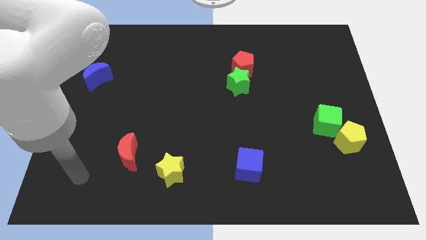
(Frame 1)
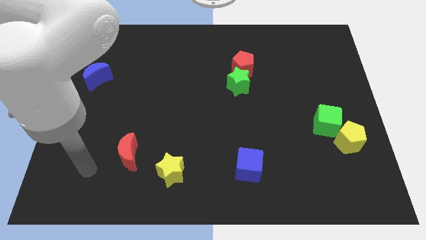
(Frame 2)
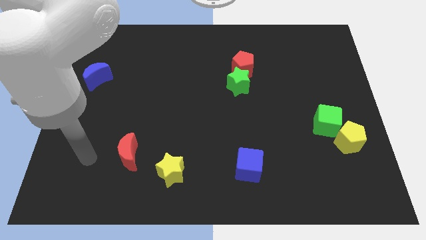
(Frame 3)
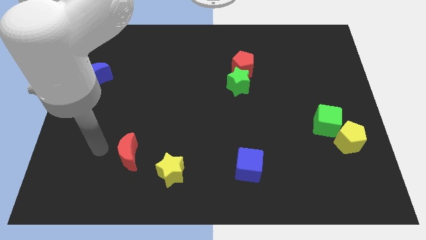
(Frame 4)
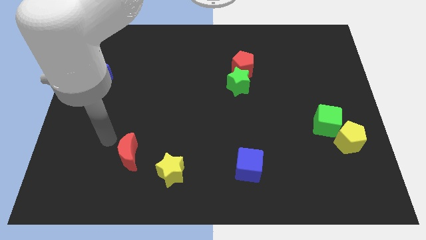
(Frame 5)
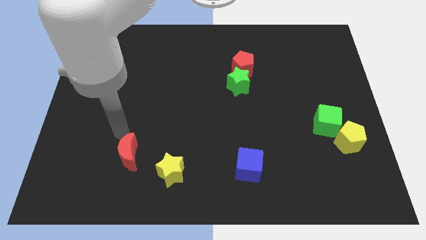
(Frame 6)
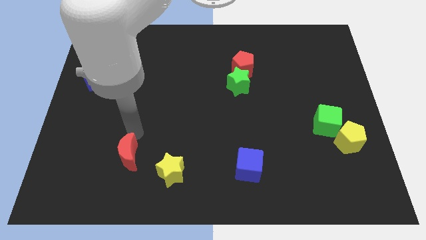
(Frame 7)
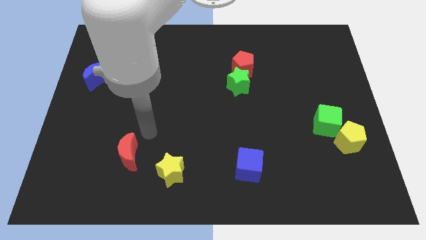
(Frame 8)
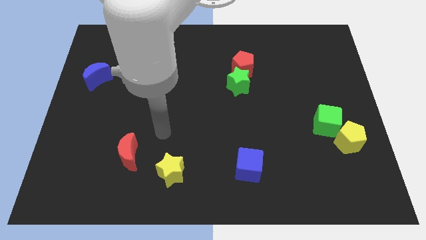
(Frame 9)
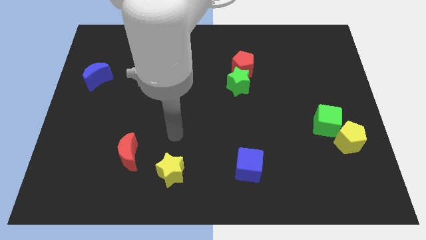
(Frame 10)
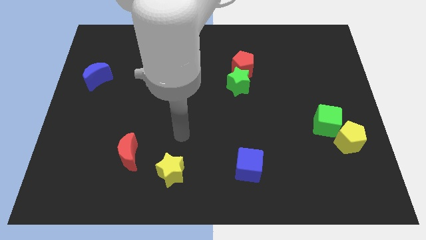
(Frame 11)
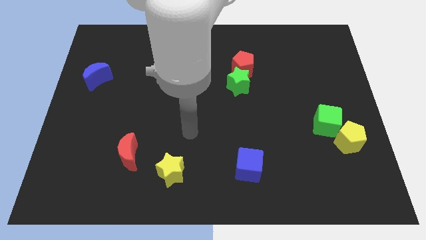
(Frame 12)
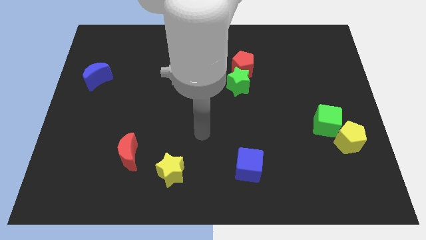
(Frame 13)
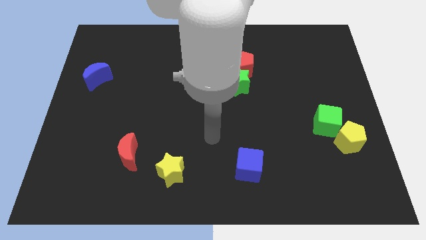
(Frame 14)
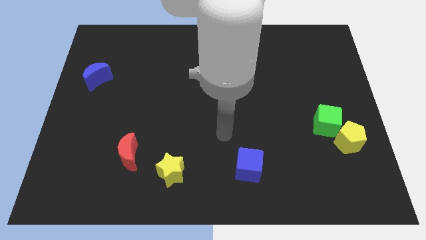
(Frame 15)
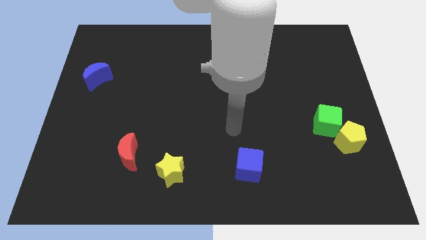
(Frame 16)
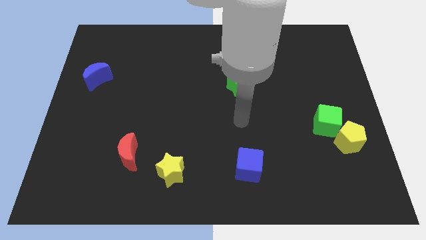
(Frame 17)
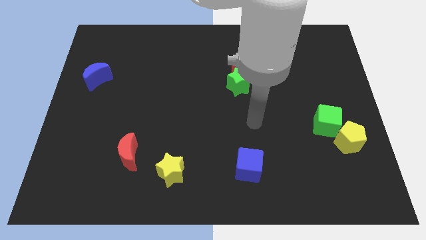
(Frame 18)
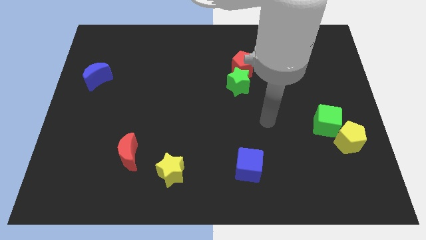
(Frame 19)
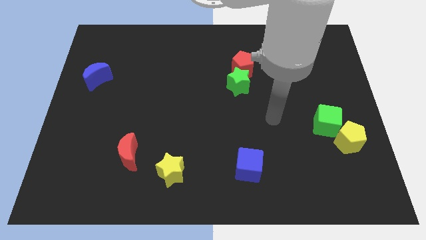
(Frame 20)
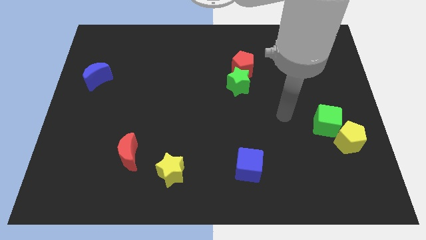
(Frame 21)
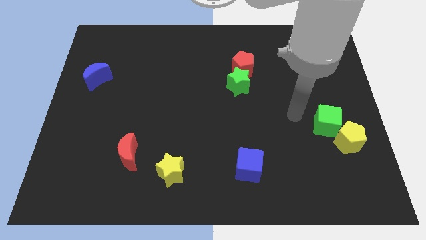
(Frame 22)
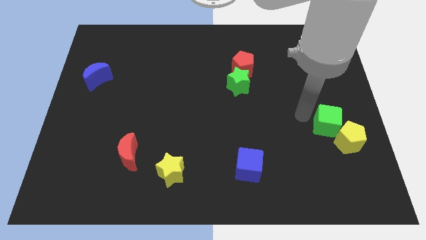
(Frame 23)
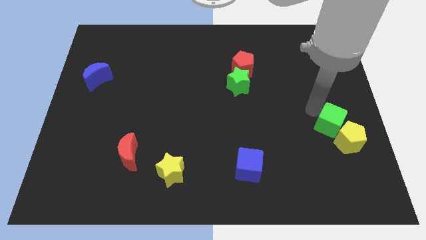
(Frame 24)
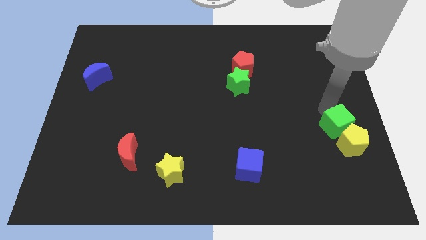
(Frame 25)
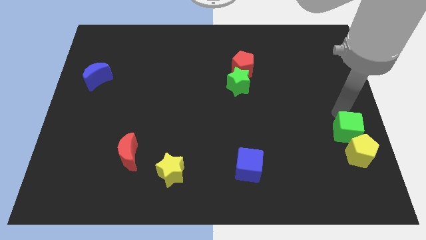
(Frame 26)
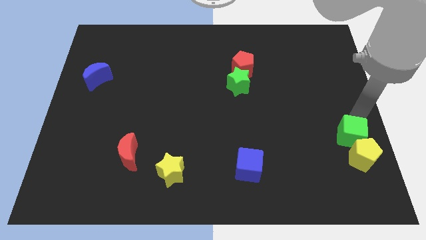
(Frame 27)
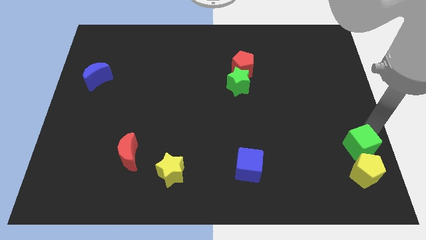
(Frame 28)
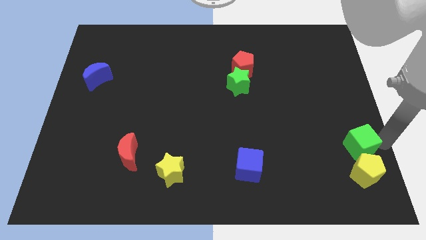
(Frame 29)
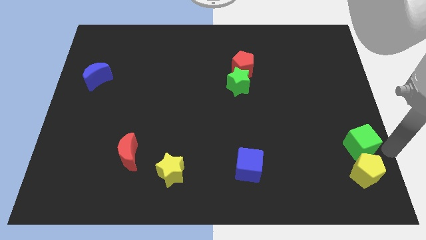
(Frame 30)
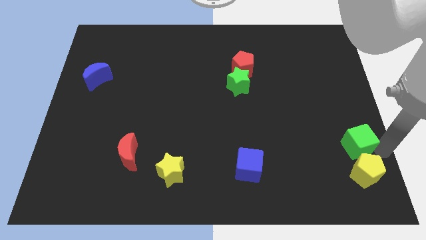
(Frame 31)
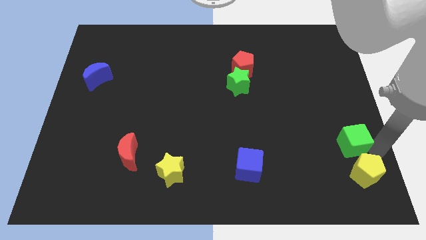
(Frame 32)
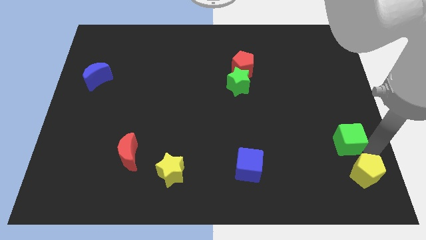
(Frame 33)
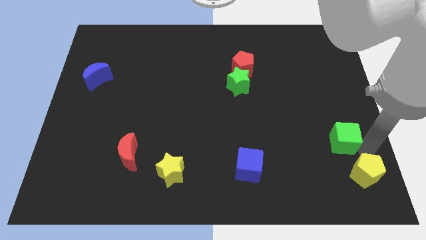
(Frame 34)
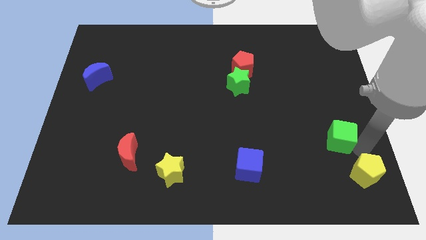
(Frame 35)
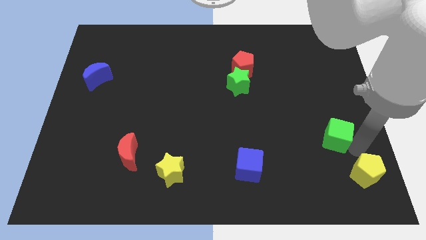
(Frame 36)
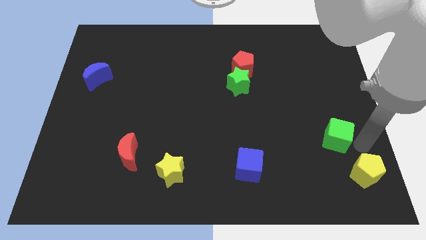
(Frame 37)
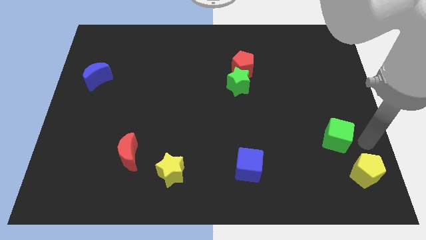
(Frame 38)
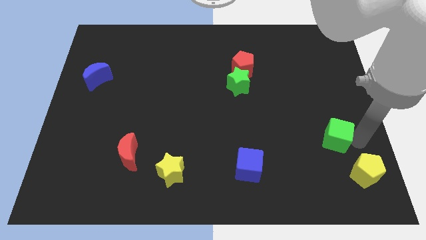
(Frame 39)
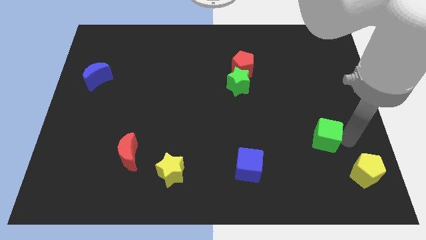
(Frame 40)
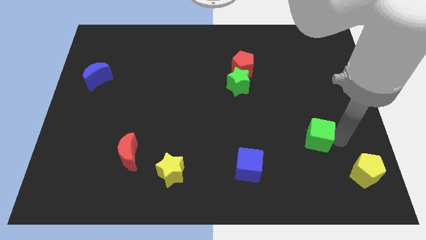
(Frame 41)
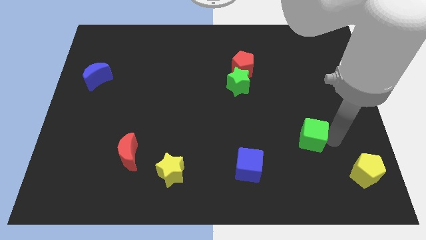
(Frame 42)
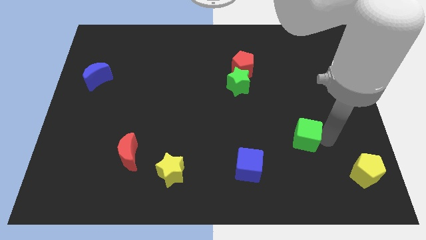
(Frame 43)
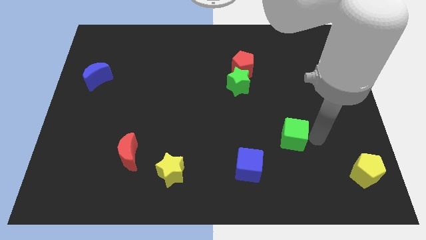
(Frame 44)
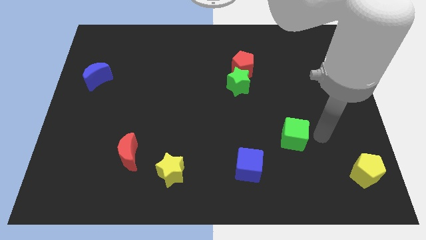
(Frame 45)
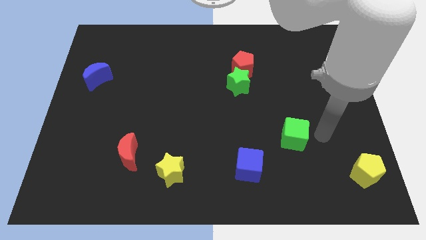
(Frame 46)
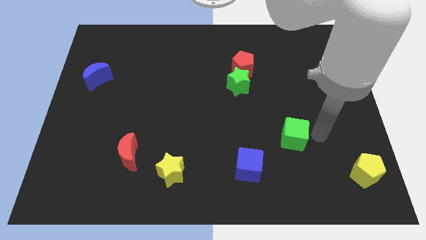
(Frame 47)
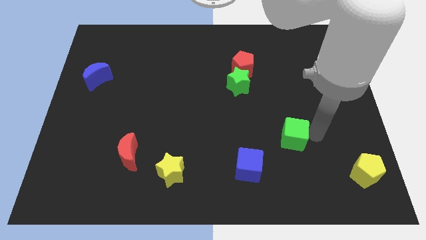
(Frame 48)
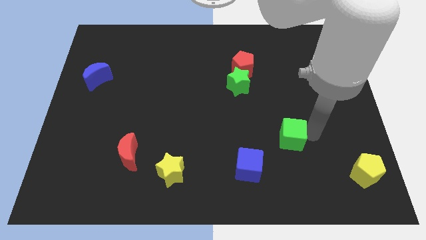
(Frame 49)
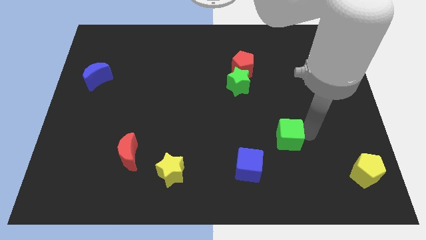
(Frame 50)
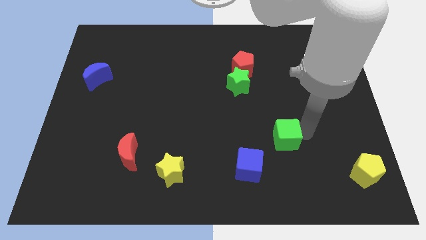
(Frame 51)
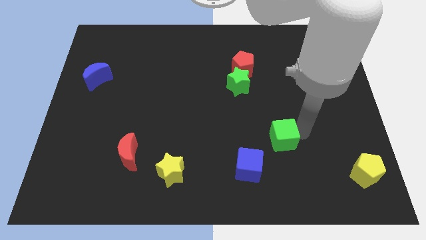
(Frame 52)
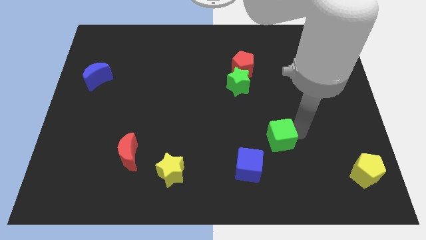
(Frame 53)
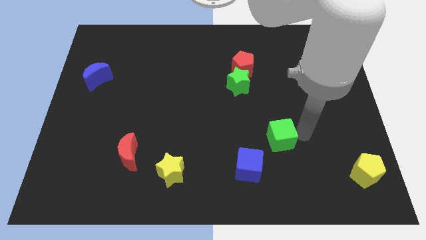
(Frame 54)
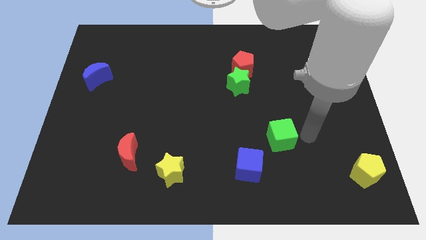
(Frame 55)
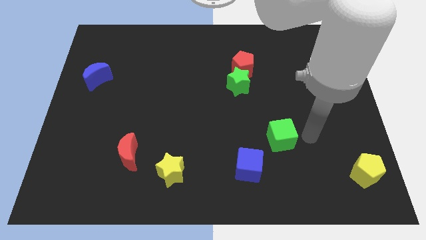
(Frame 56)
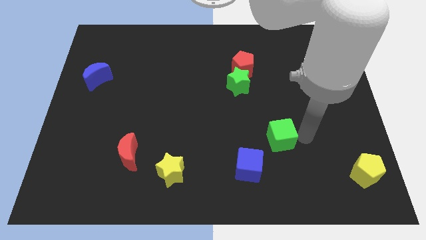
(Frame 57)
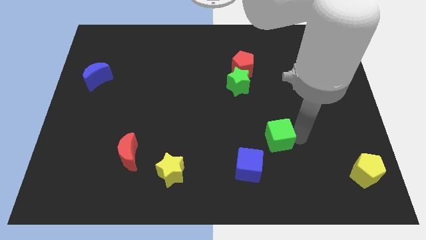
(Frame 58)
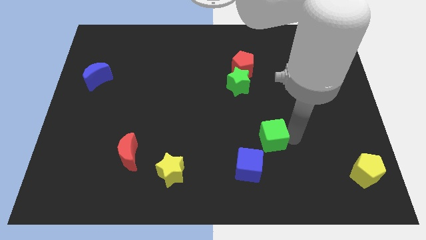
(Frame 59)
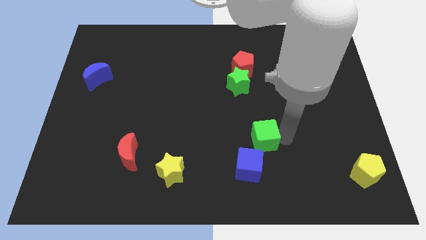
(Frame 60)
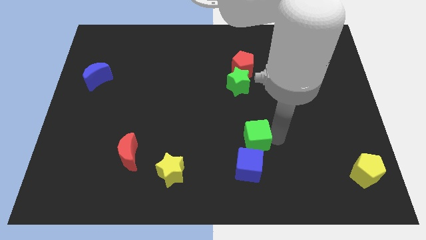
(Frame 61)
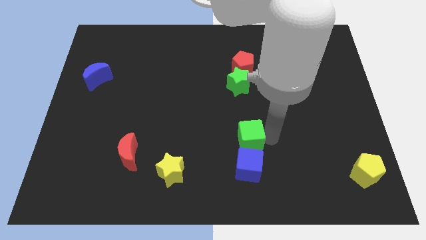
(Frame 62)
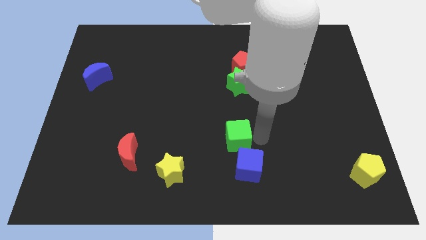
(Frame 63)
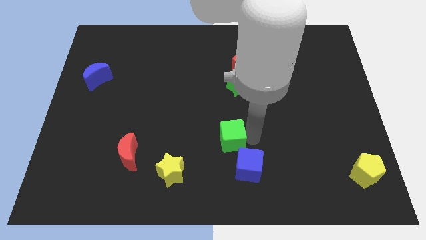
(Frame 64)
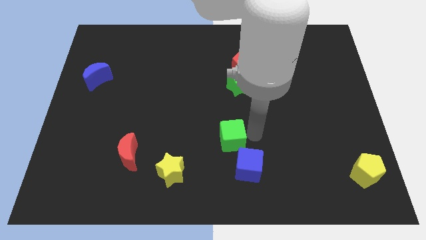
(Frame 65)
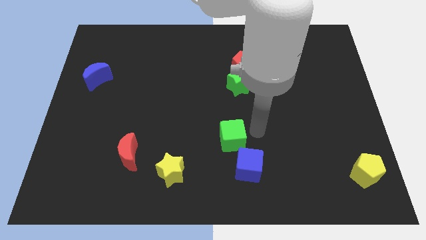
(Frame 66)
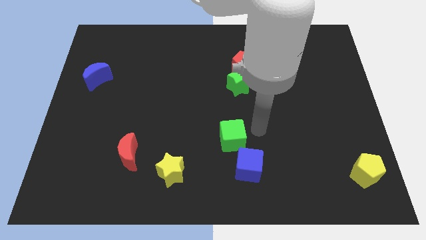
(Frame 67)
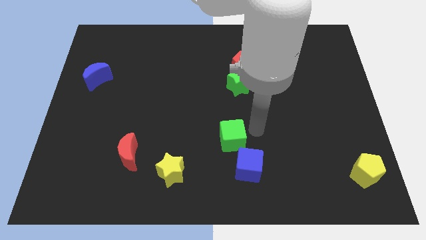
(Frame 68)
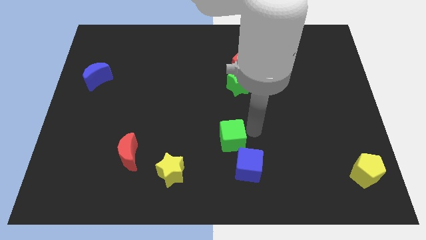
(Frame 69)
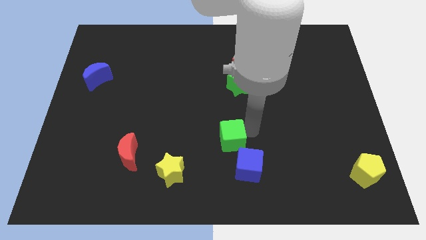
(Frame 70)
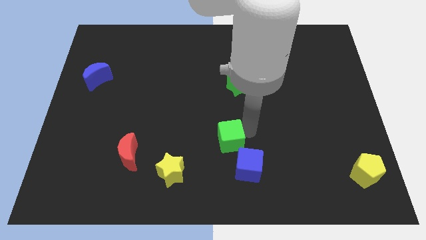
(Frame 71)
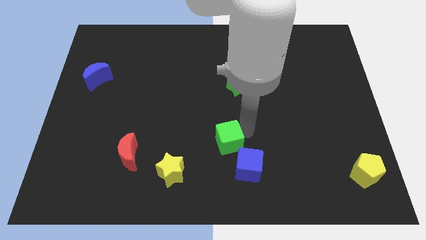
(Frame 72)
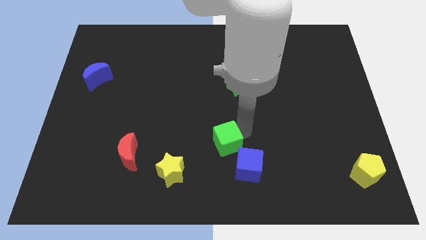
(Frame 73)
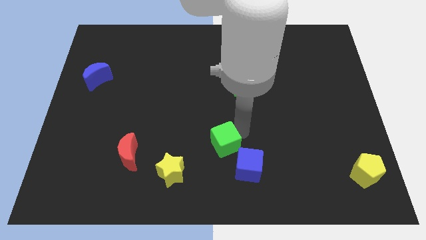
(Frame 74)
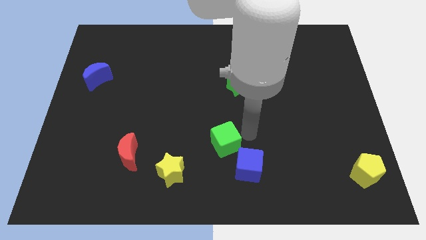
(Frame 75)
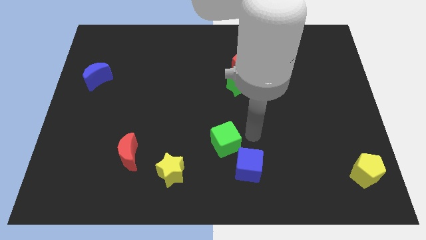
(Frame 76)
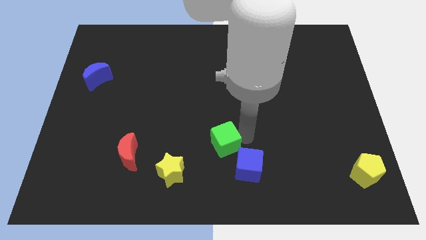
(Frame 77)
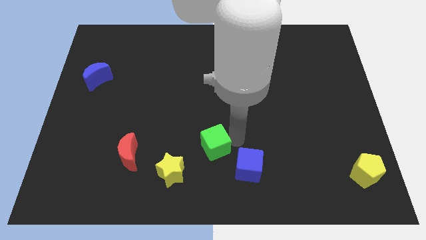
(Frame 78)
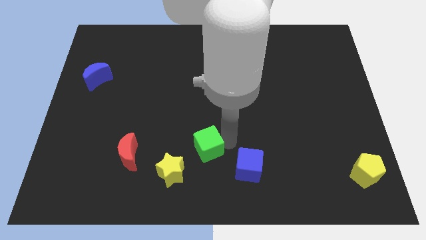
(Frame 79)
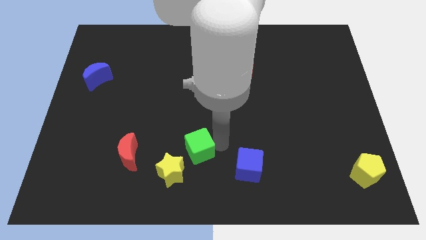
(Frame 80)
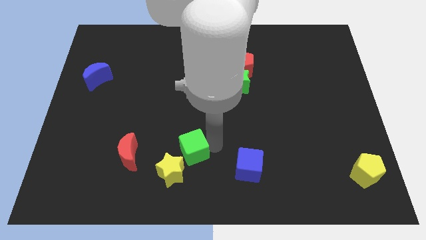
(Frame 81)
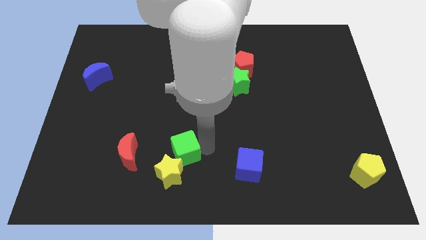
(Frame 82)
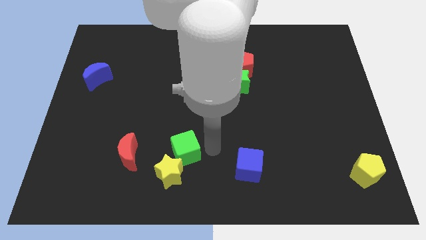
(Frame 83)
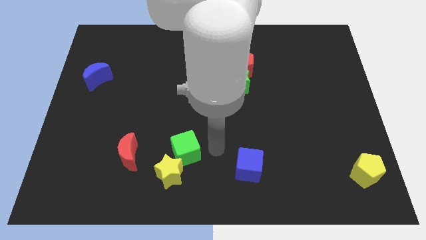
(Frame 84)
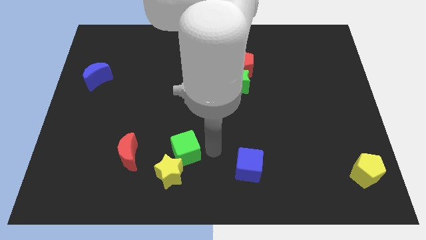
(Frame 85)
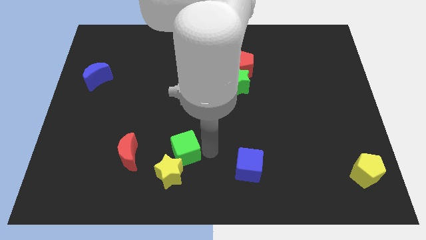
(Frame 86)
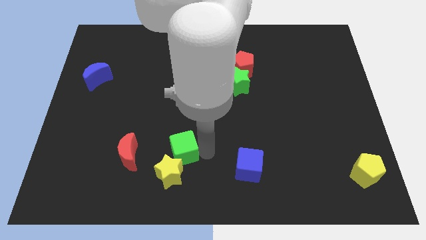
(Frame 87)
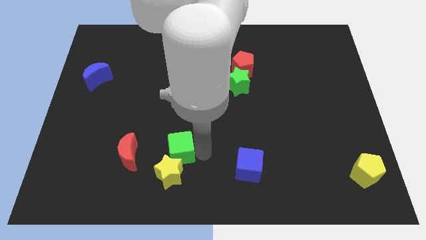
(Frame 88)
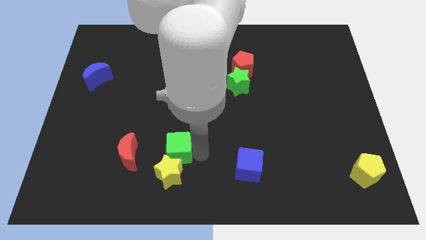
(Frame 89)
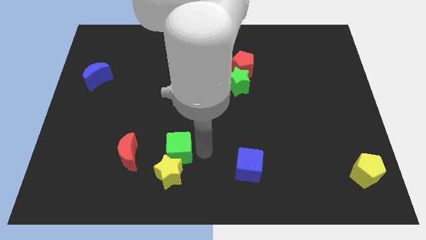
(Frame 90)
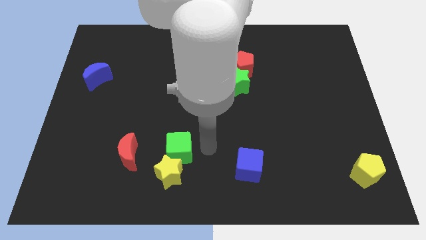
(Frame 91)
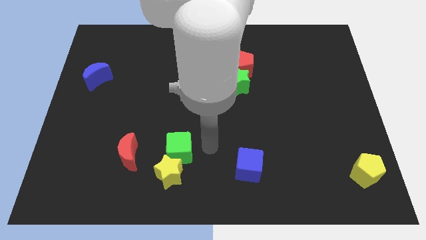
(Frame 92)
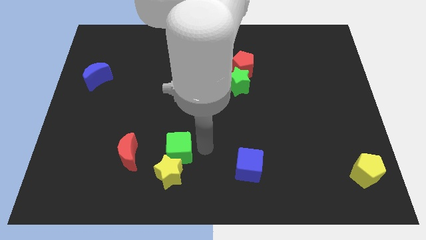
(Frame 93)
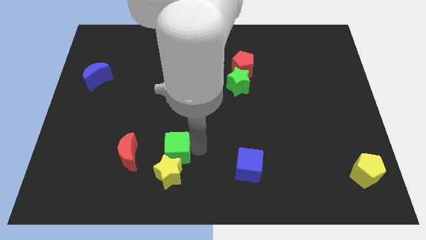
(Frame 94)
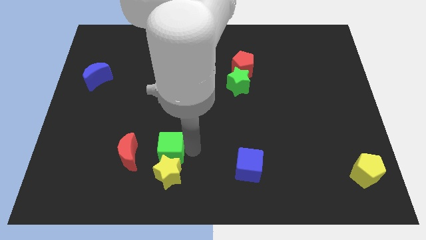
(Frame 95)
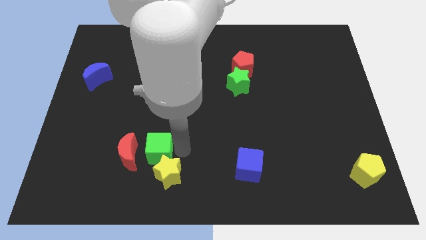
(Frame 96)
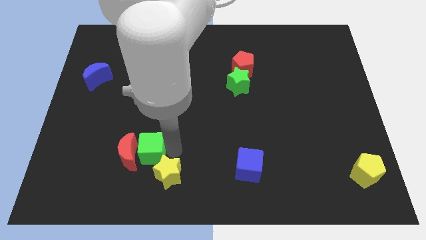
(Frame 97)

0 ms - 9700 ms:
move the green cube to the red moon
